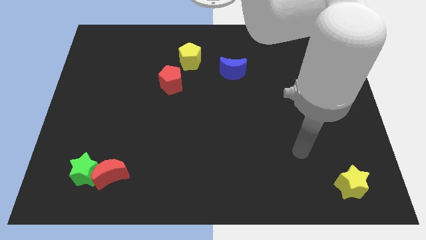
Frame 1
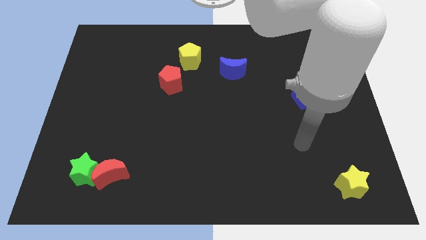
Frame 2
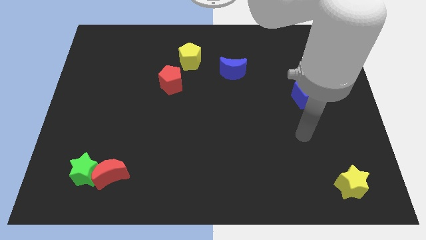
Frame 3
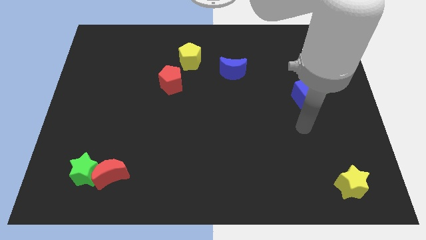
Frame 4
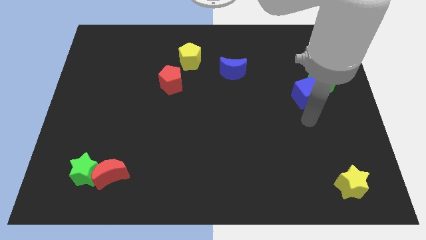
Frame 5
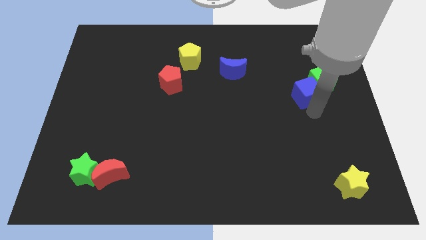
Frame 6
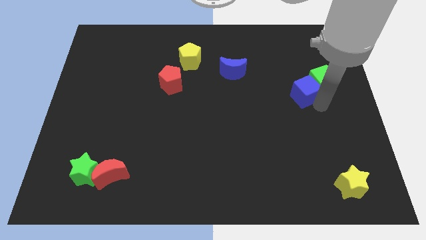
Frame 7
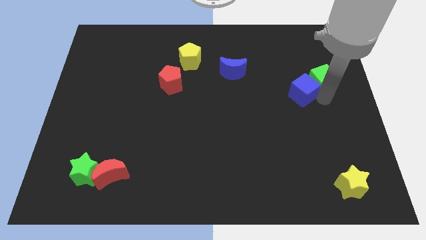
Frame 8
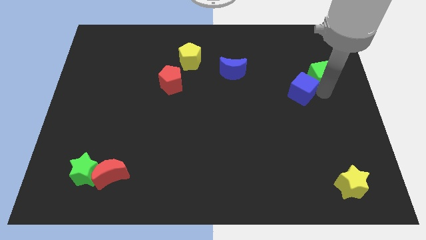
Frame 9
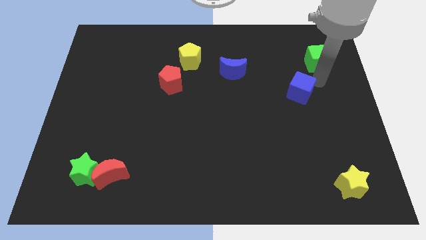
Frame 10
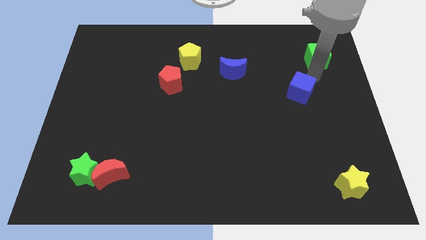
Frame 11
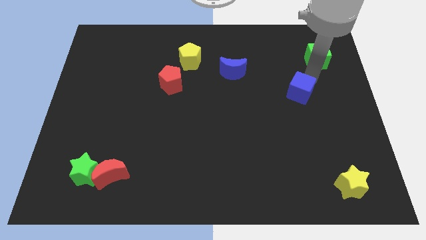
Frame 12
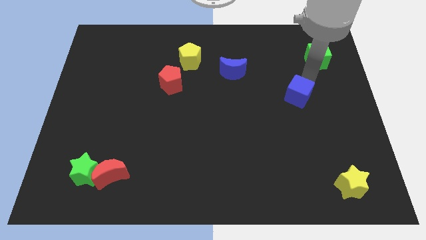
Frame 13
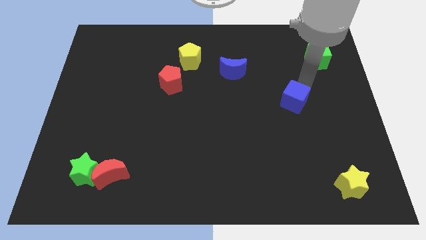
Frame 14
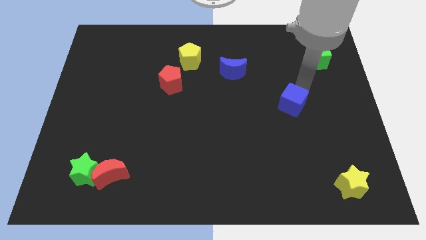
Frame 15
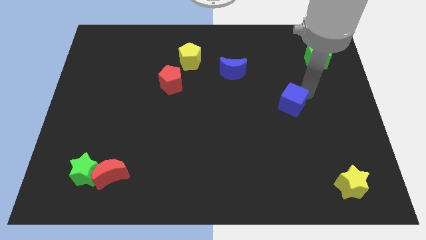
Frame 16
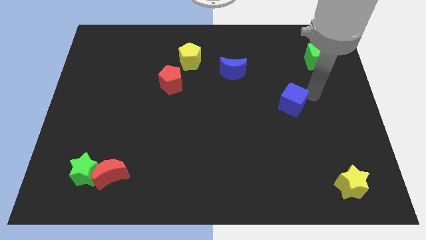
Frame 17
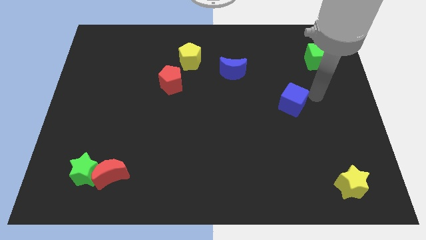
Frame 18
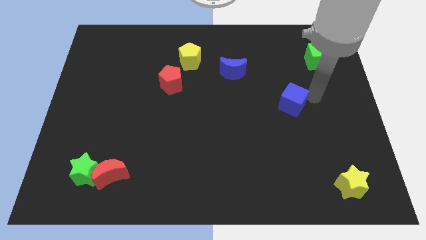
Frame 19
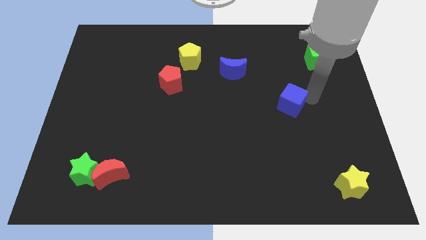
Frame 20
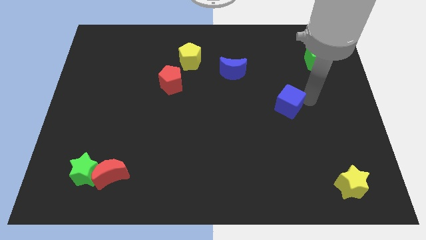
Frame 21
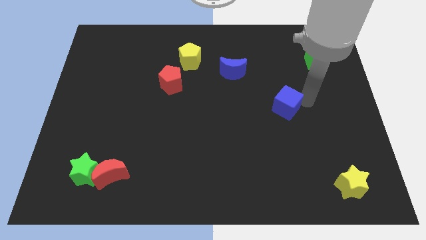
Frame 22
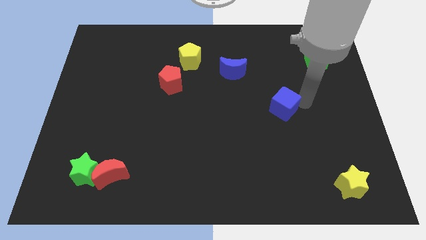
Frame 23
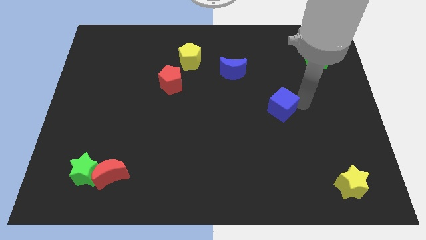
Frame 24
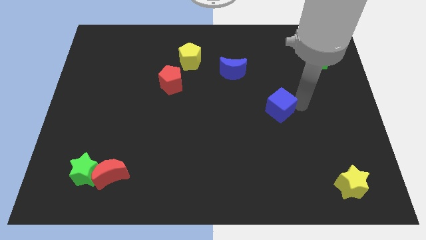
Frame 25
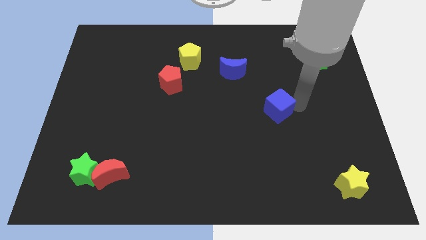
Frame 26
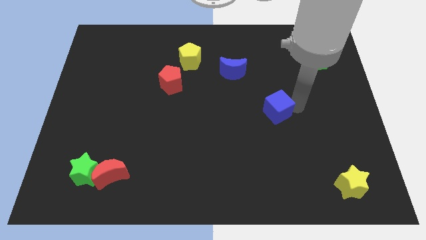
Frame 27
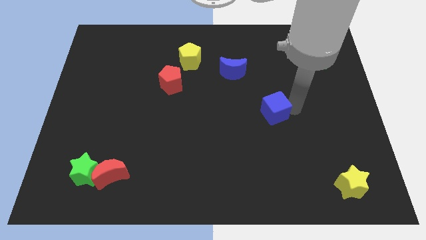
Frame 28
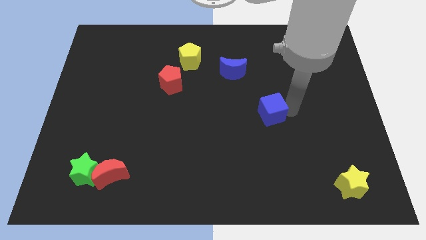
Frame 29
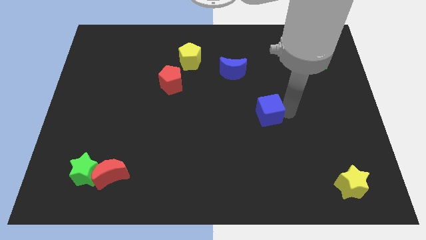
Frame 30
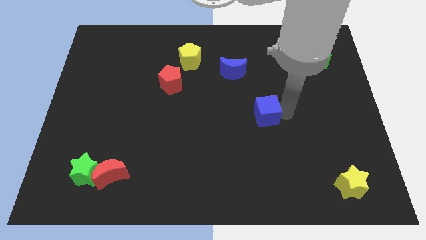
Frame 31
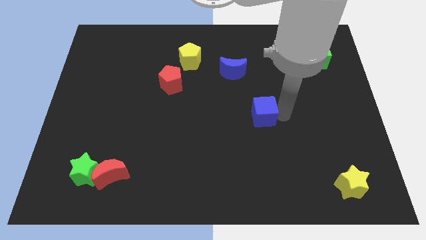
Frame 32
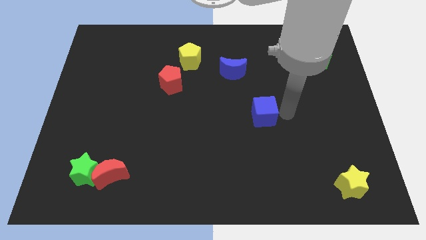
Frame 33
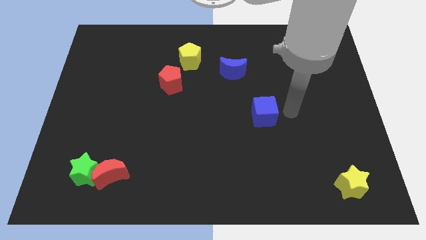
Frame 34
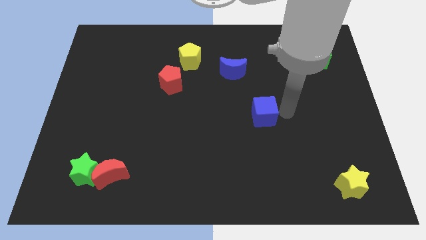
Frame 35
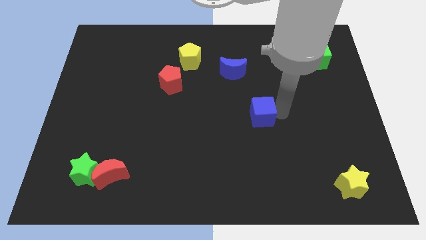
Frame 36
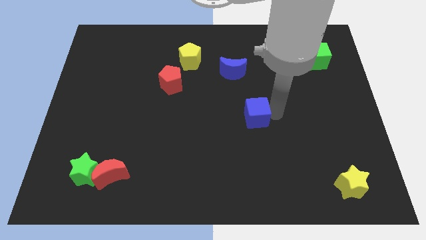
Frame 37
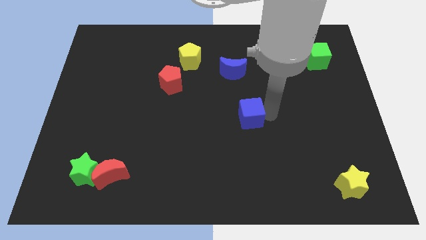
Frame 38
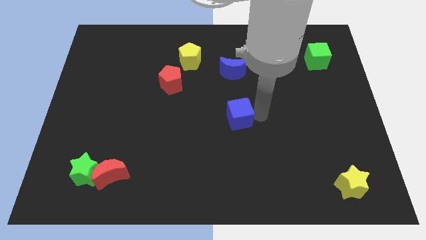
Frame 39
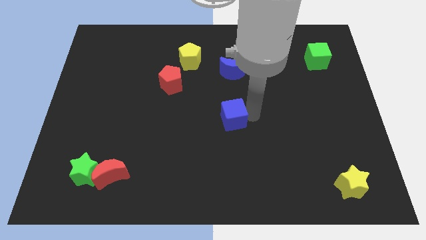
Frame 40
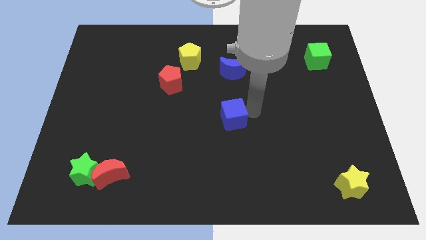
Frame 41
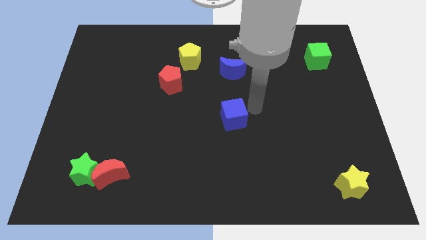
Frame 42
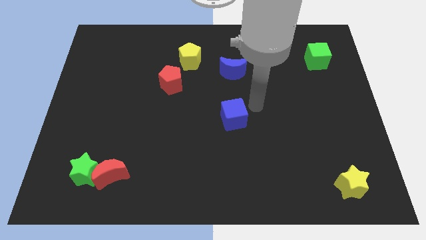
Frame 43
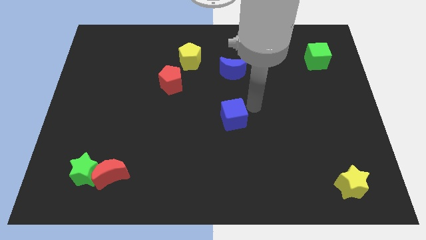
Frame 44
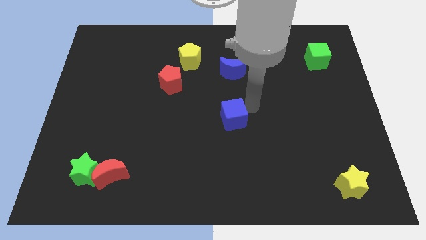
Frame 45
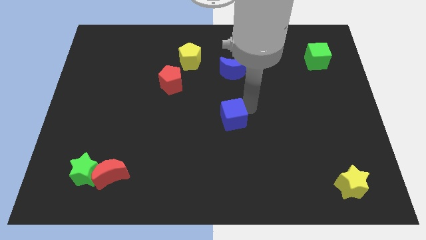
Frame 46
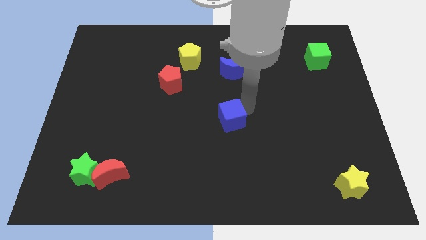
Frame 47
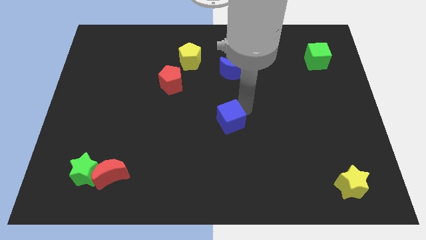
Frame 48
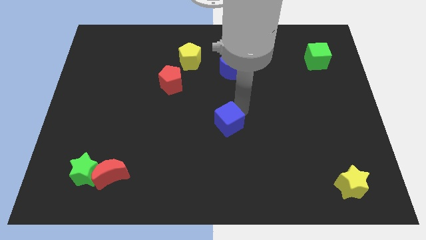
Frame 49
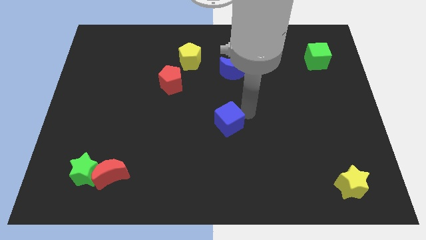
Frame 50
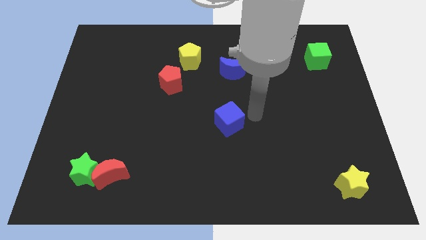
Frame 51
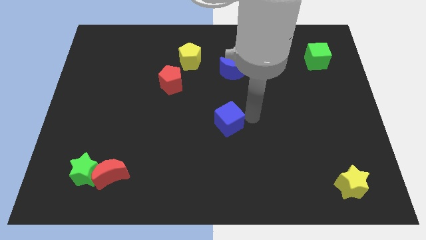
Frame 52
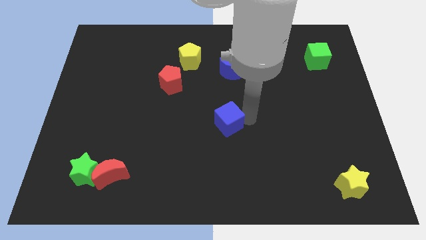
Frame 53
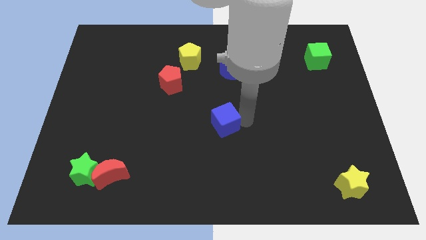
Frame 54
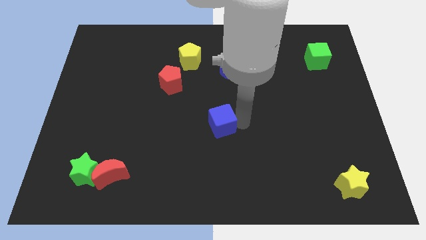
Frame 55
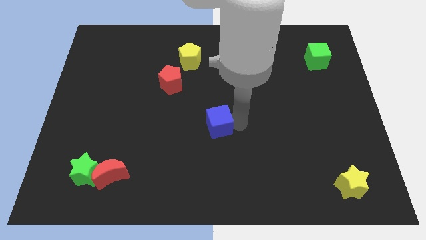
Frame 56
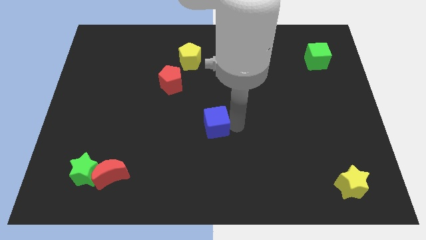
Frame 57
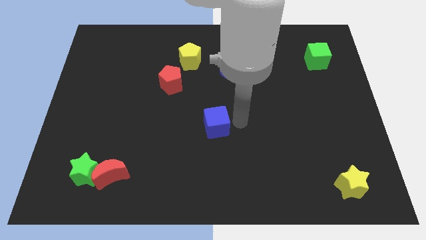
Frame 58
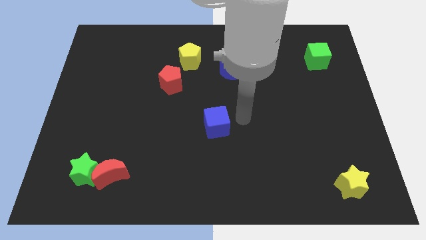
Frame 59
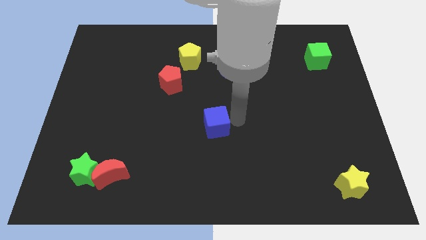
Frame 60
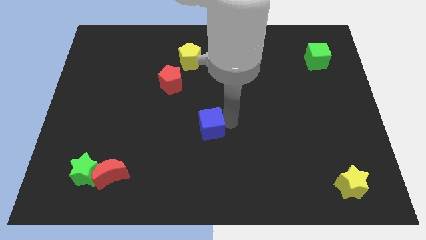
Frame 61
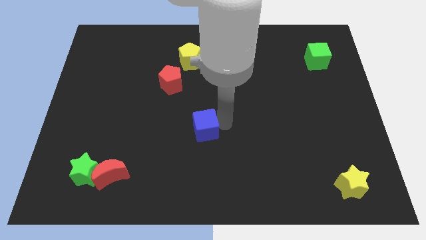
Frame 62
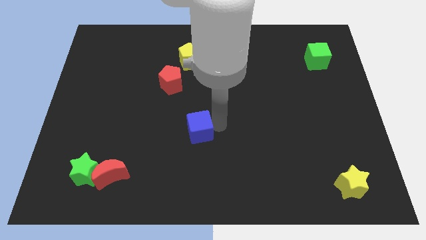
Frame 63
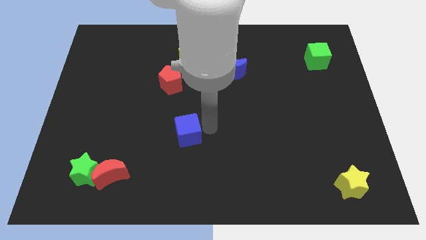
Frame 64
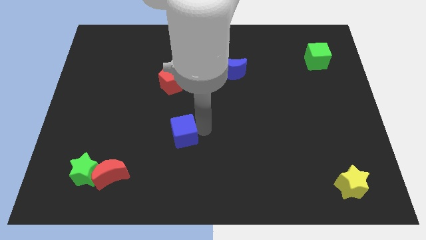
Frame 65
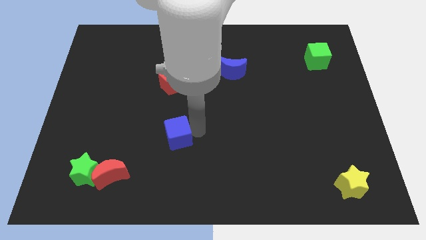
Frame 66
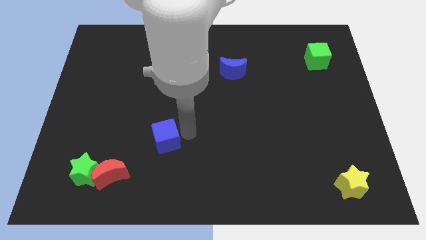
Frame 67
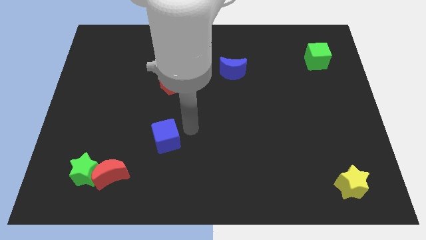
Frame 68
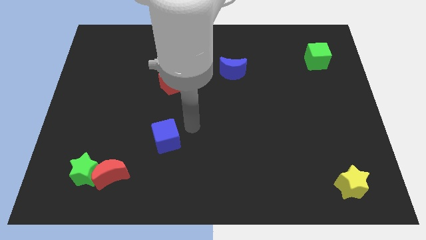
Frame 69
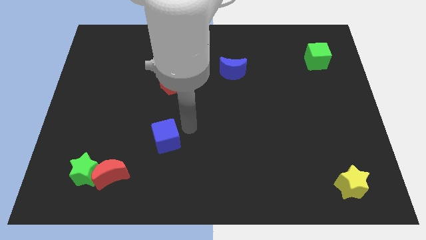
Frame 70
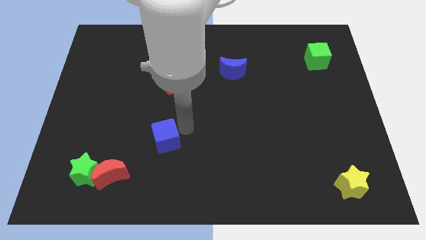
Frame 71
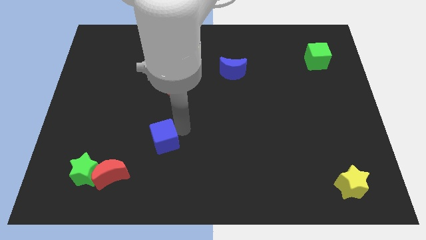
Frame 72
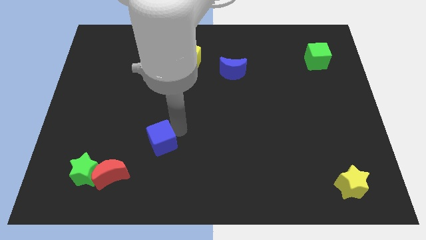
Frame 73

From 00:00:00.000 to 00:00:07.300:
put the blue cube to the top right of the red moon

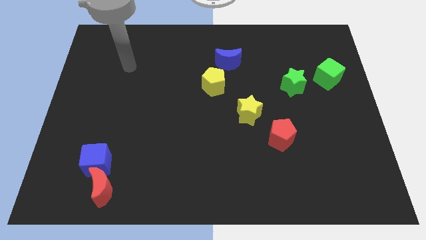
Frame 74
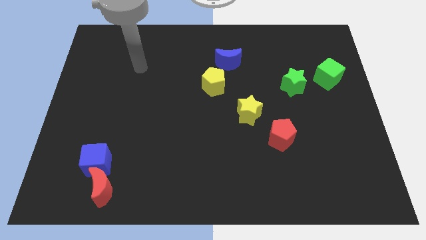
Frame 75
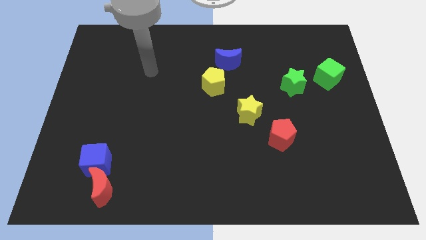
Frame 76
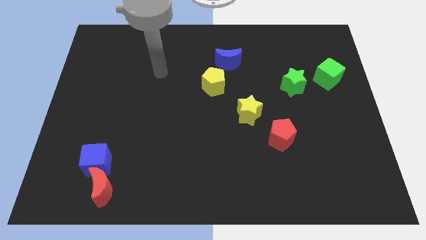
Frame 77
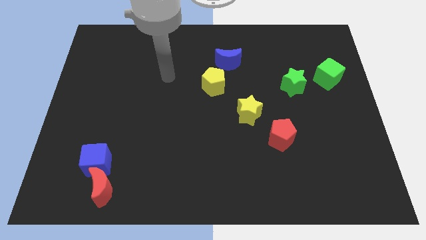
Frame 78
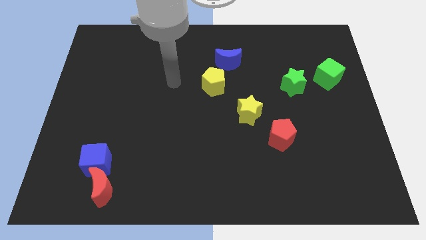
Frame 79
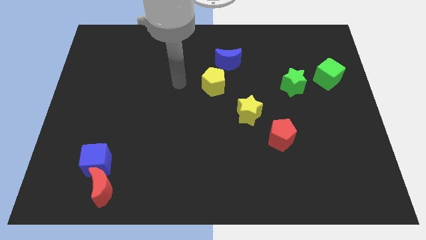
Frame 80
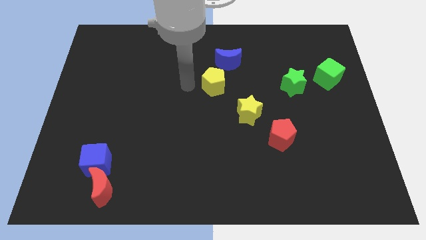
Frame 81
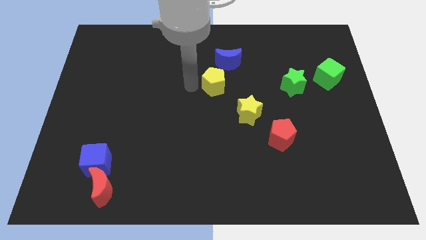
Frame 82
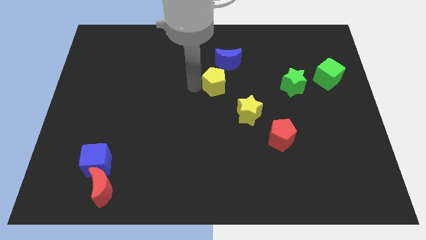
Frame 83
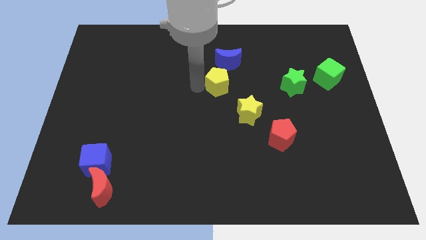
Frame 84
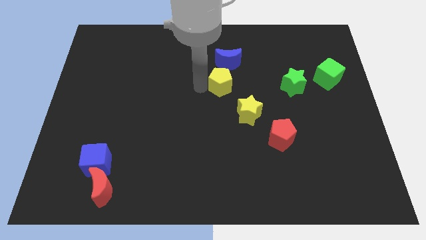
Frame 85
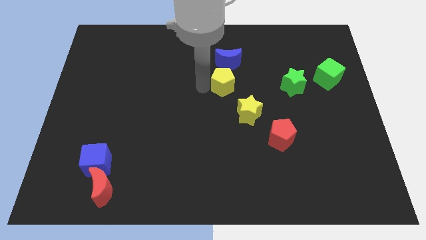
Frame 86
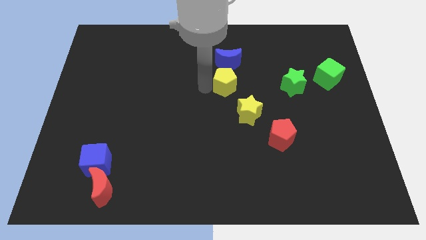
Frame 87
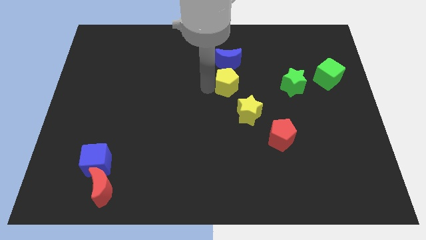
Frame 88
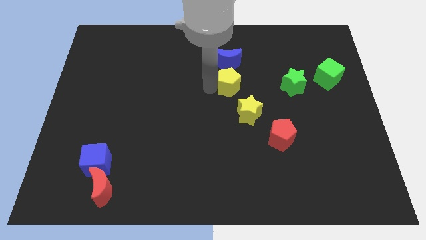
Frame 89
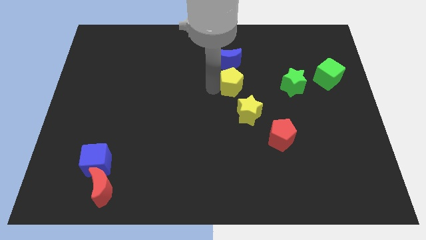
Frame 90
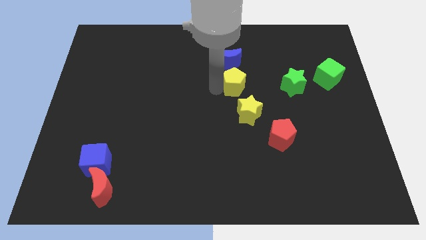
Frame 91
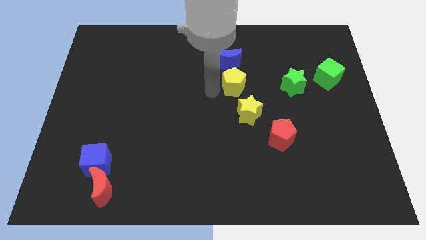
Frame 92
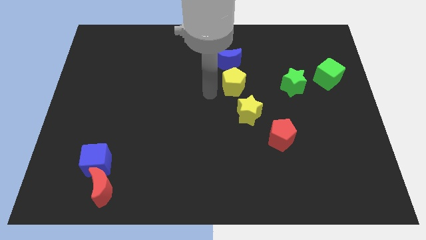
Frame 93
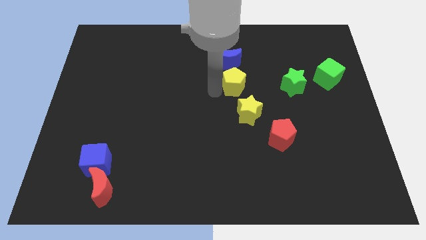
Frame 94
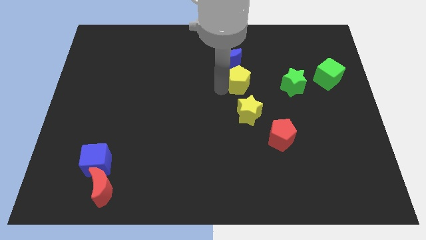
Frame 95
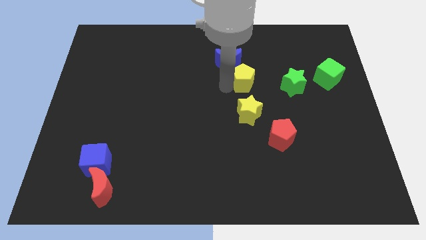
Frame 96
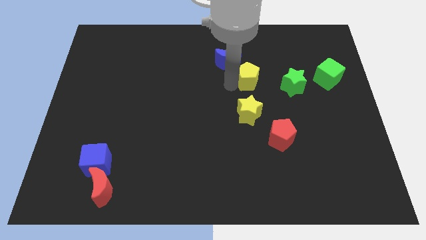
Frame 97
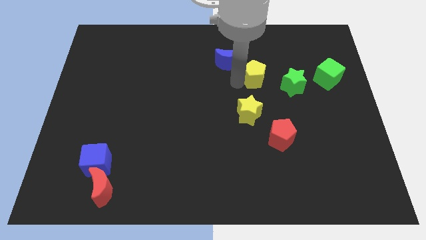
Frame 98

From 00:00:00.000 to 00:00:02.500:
put the yellow pentagon to the top left of the green star
